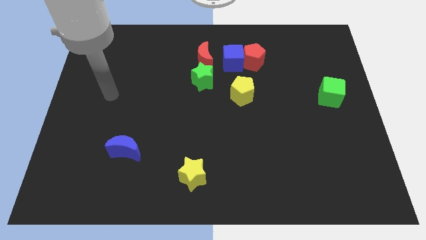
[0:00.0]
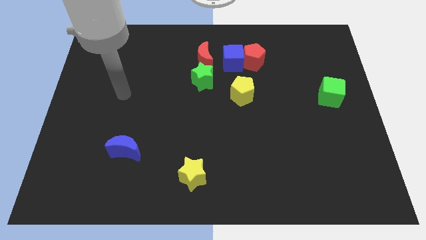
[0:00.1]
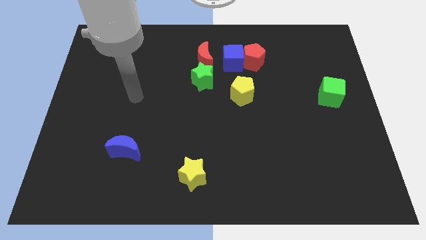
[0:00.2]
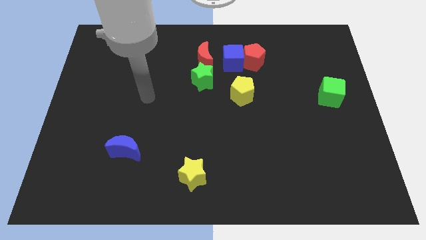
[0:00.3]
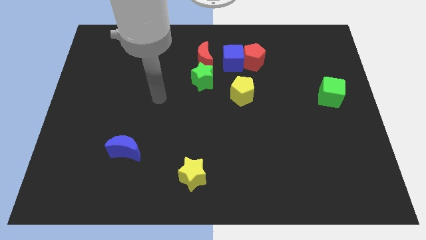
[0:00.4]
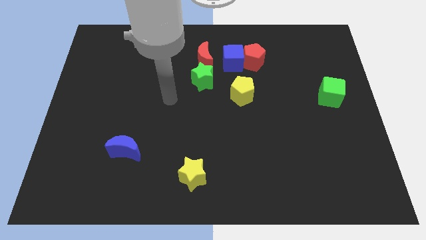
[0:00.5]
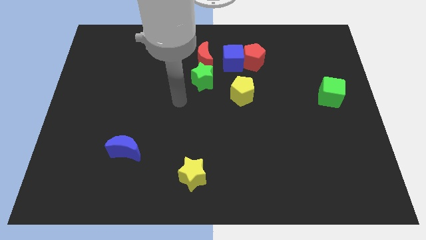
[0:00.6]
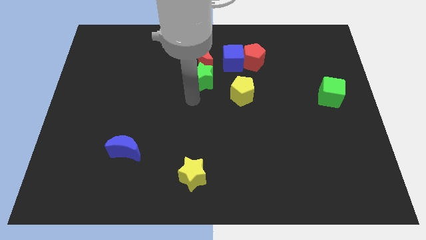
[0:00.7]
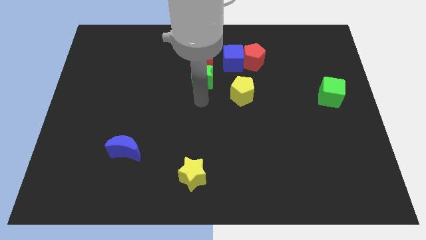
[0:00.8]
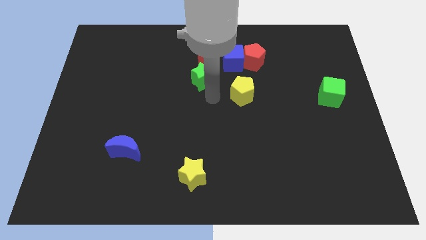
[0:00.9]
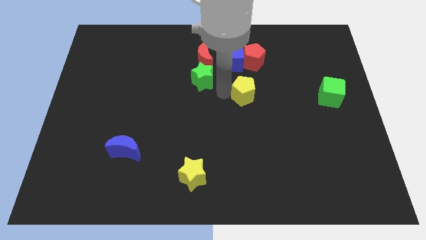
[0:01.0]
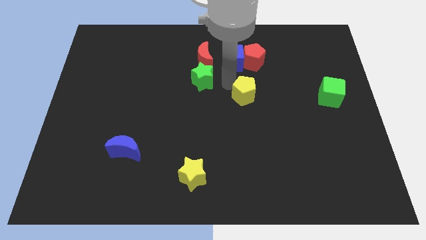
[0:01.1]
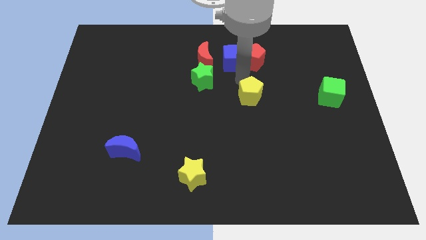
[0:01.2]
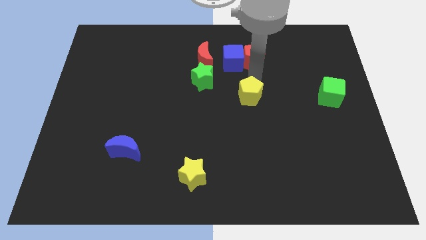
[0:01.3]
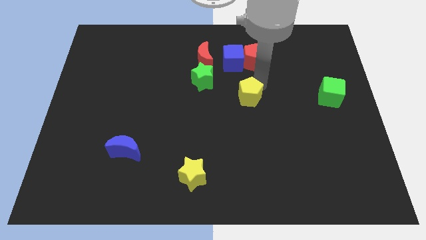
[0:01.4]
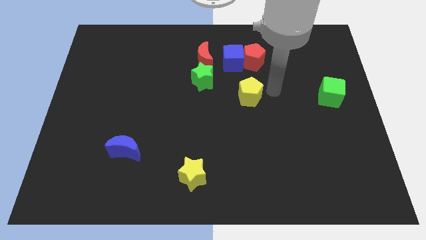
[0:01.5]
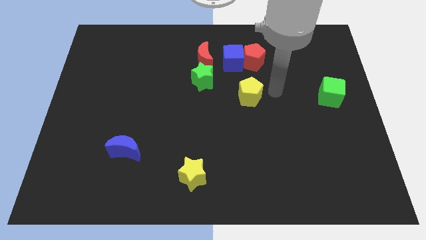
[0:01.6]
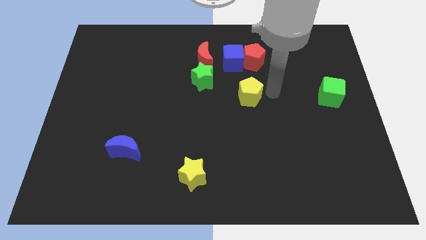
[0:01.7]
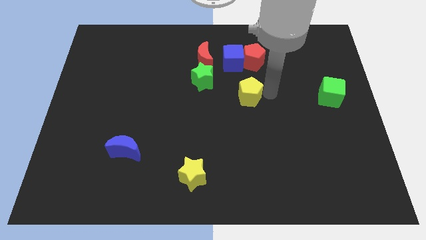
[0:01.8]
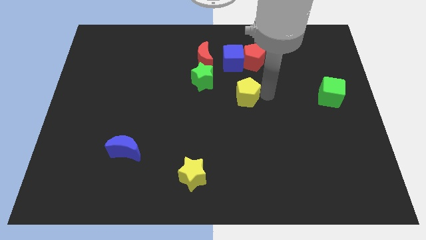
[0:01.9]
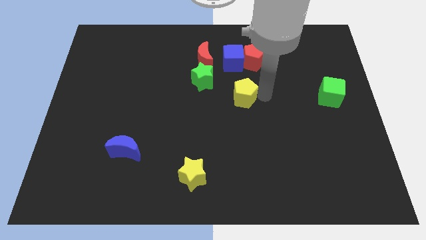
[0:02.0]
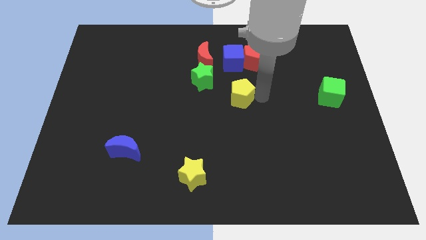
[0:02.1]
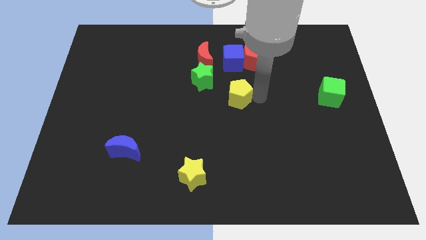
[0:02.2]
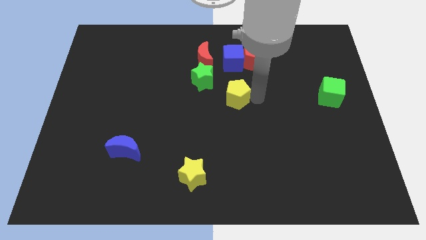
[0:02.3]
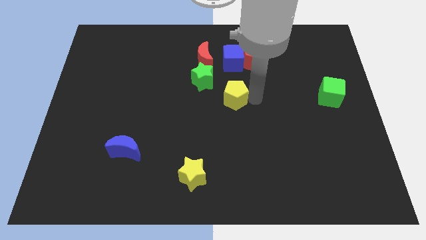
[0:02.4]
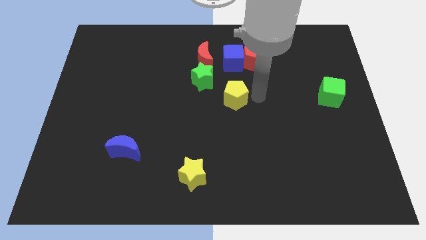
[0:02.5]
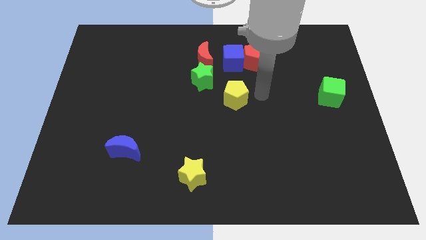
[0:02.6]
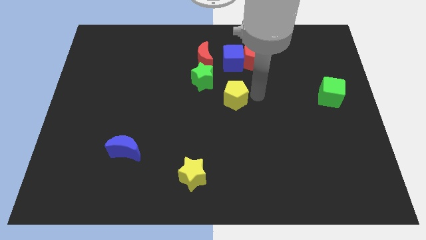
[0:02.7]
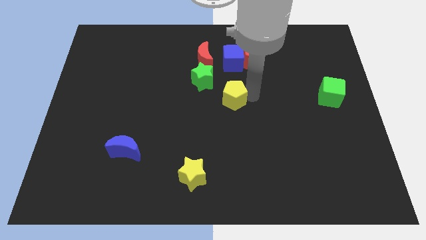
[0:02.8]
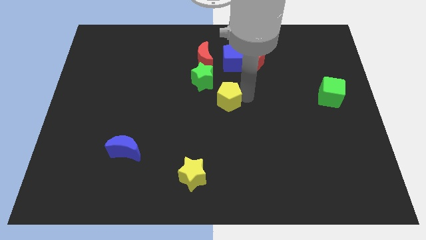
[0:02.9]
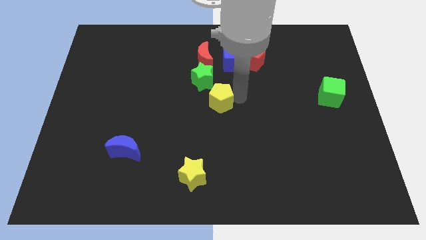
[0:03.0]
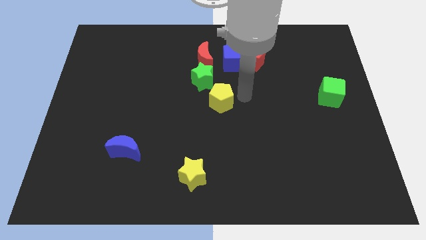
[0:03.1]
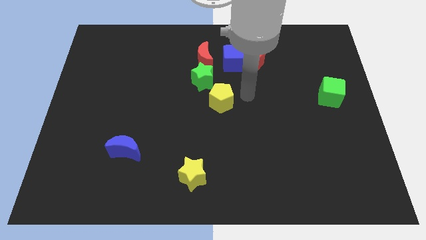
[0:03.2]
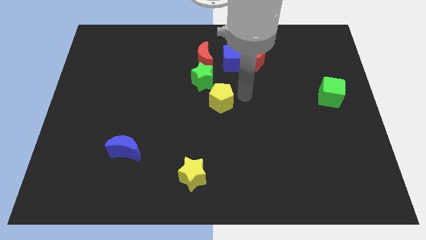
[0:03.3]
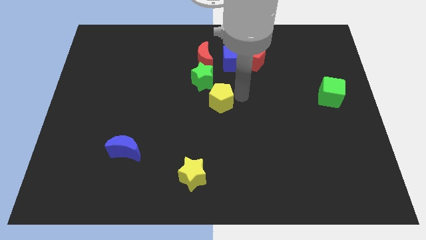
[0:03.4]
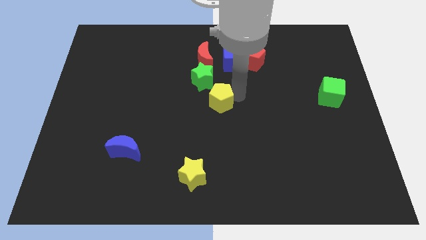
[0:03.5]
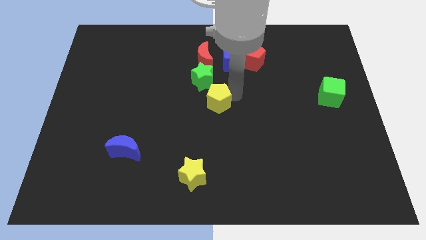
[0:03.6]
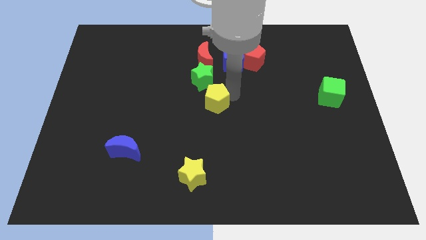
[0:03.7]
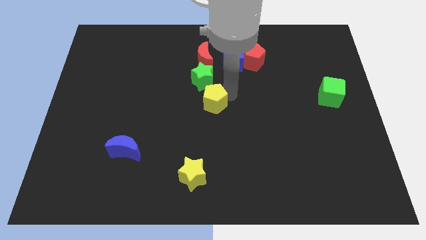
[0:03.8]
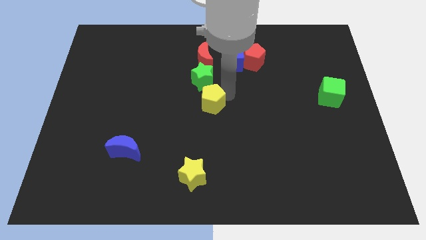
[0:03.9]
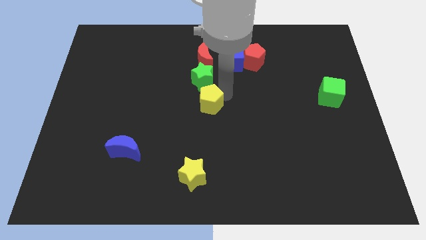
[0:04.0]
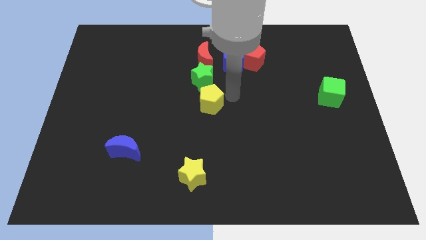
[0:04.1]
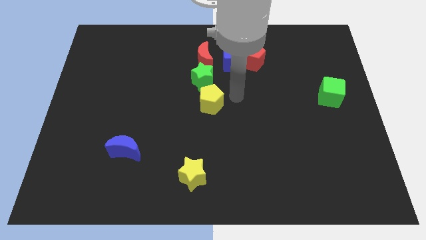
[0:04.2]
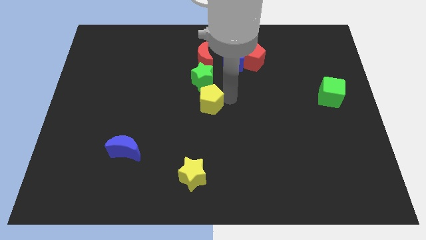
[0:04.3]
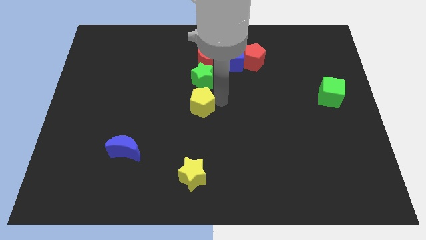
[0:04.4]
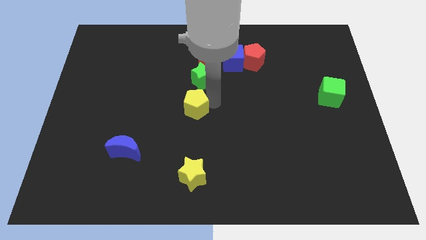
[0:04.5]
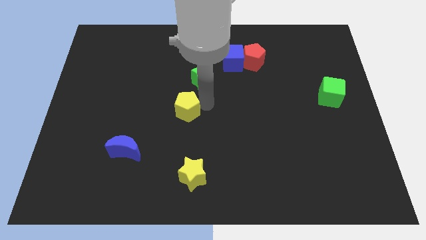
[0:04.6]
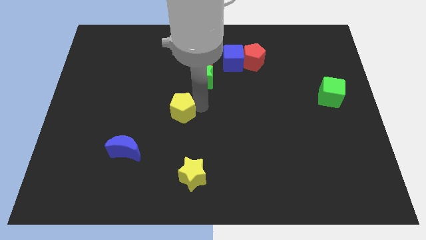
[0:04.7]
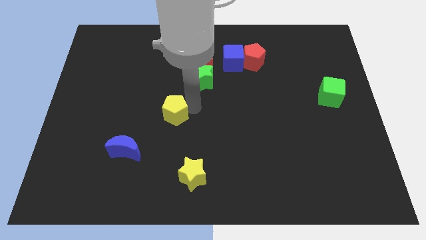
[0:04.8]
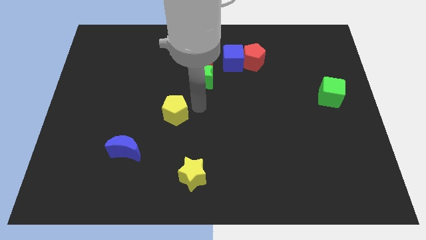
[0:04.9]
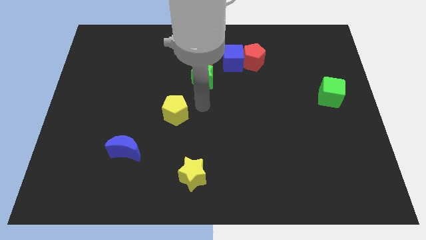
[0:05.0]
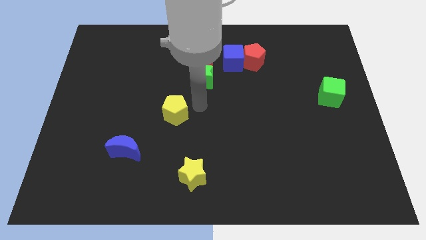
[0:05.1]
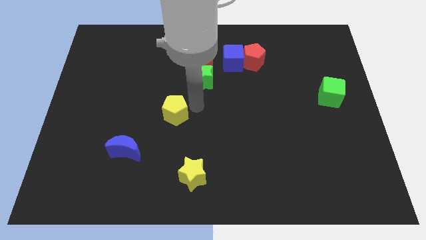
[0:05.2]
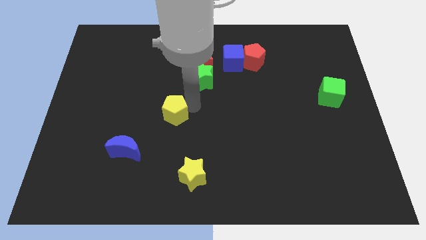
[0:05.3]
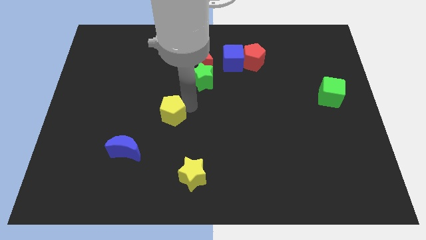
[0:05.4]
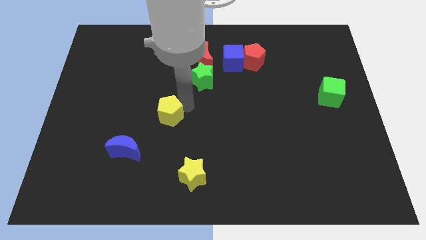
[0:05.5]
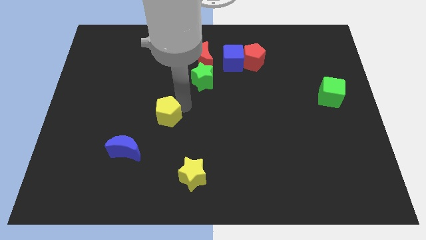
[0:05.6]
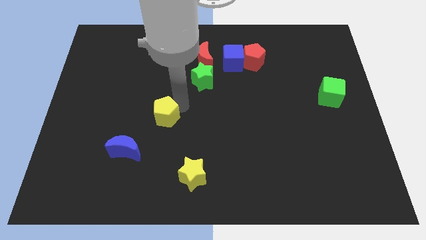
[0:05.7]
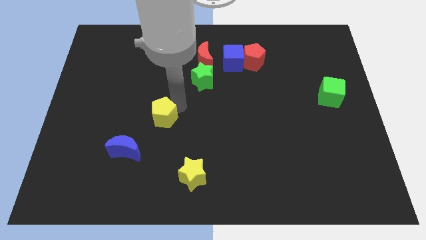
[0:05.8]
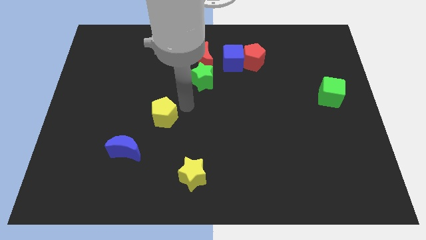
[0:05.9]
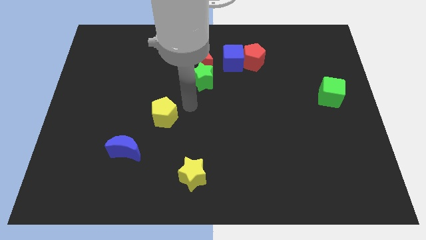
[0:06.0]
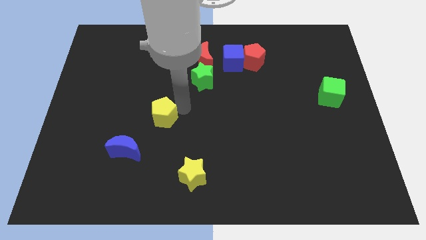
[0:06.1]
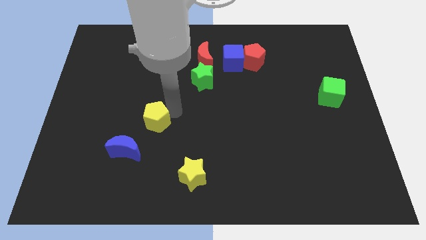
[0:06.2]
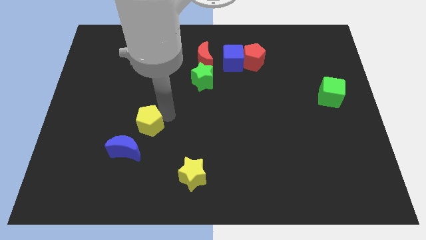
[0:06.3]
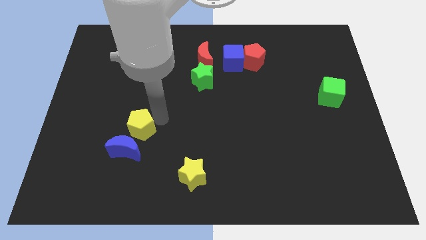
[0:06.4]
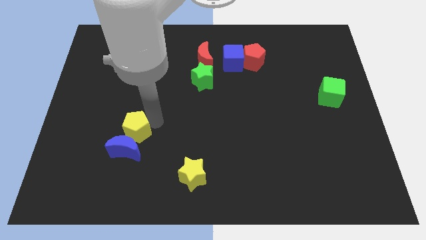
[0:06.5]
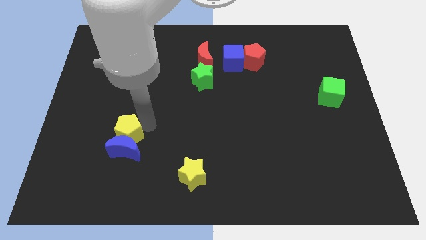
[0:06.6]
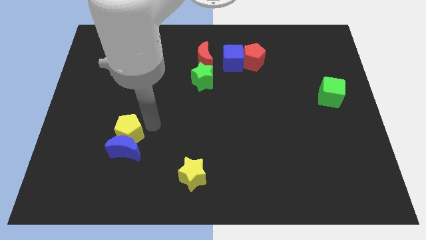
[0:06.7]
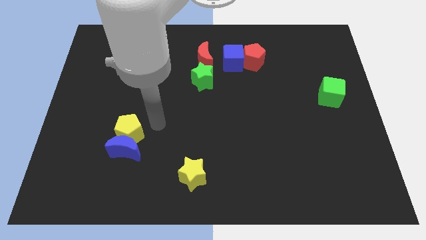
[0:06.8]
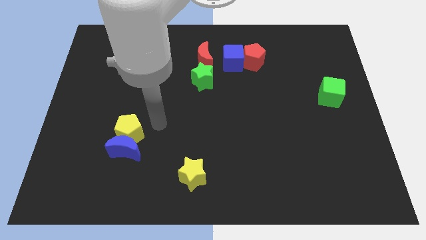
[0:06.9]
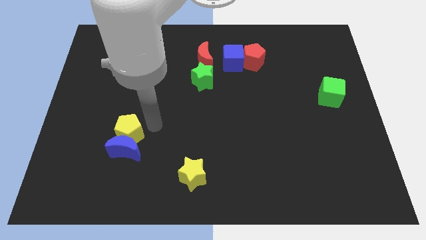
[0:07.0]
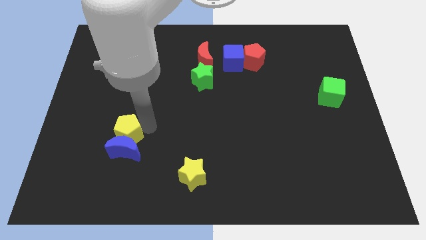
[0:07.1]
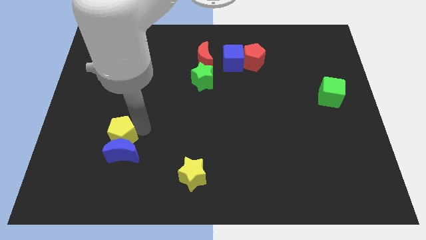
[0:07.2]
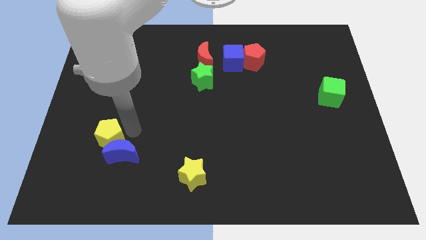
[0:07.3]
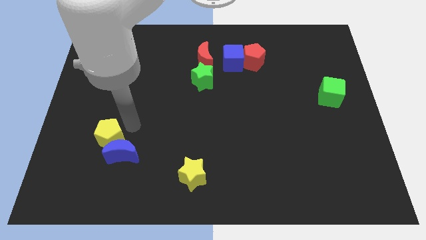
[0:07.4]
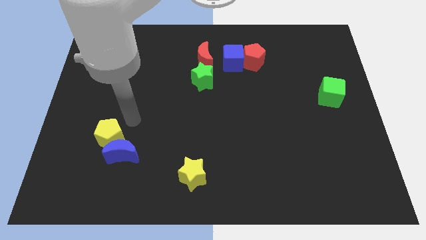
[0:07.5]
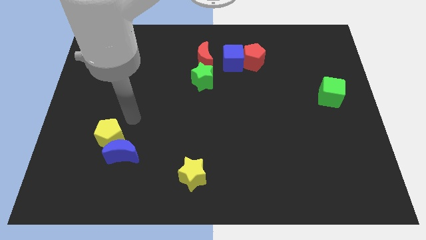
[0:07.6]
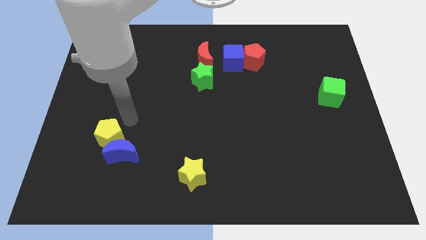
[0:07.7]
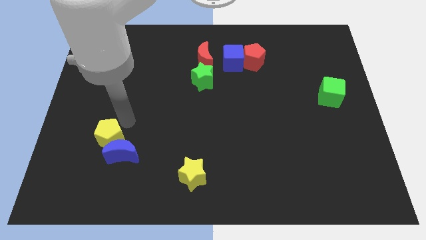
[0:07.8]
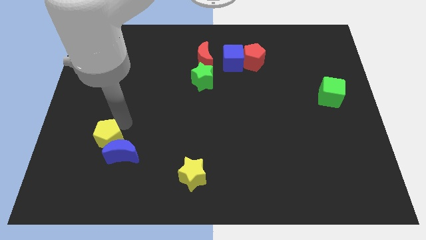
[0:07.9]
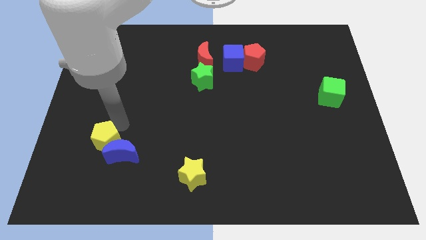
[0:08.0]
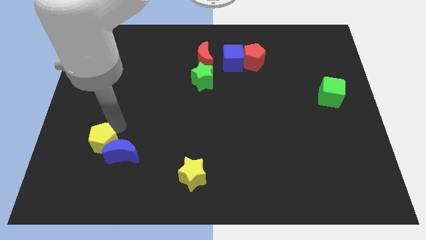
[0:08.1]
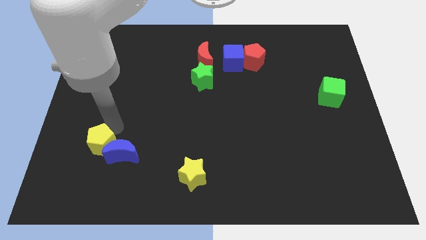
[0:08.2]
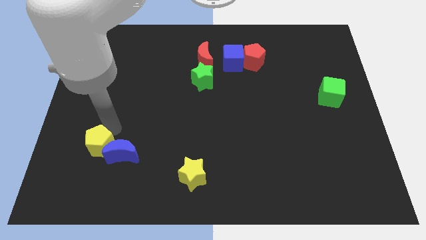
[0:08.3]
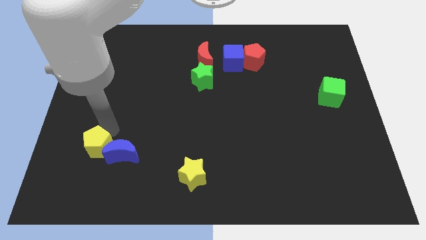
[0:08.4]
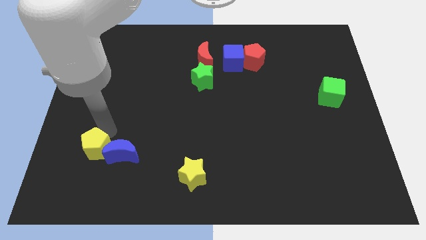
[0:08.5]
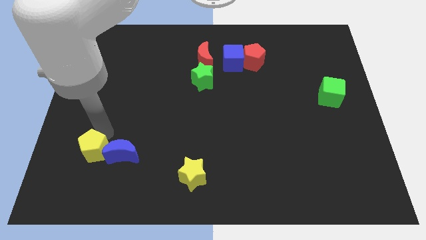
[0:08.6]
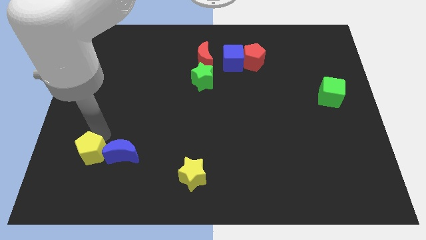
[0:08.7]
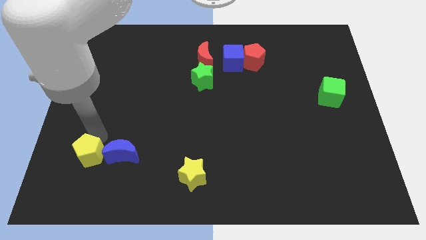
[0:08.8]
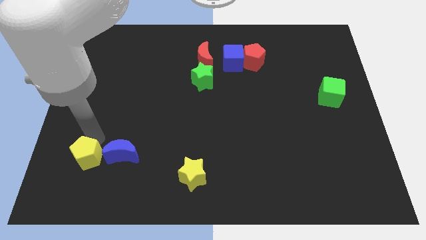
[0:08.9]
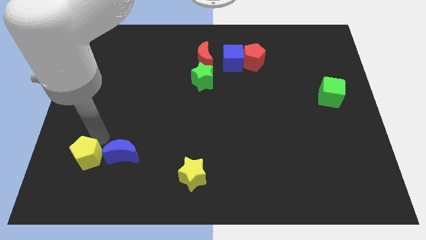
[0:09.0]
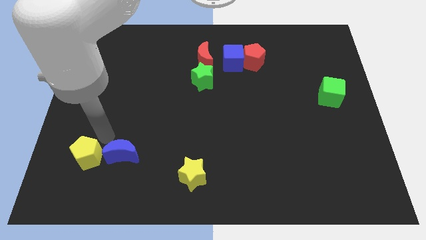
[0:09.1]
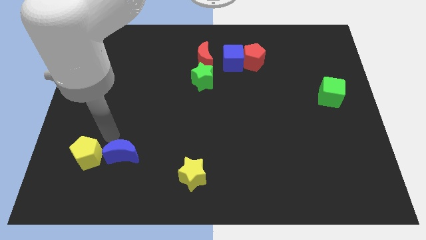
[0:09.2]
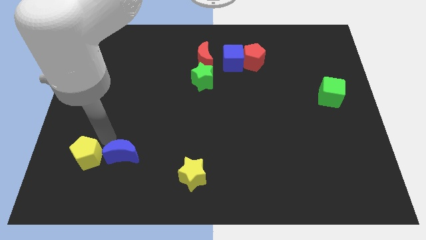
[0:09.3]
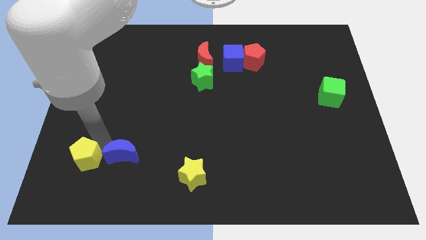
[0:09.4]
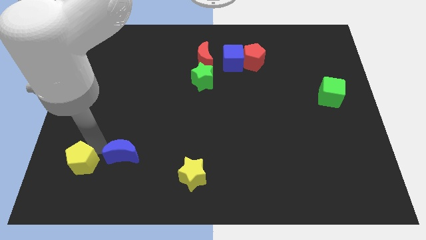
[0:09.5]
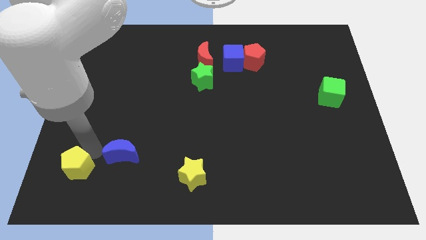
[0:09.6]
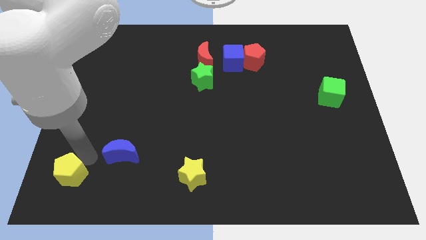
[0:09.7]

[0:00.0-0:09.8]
slide the yellow pentagon to the bottom left
